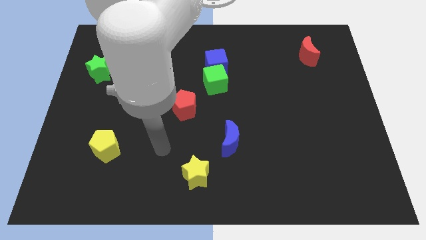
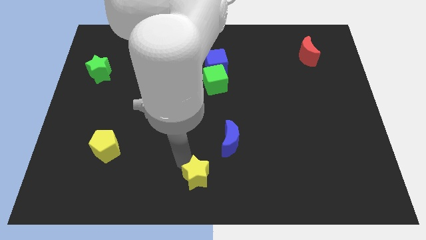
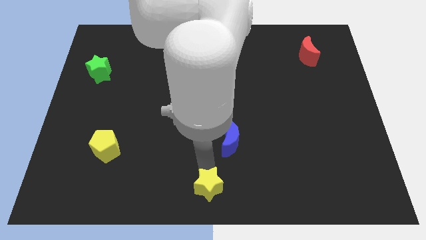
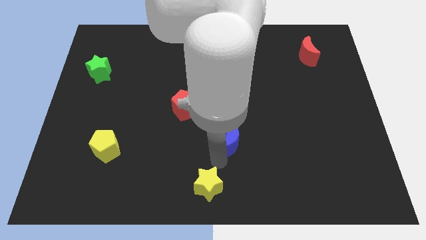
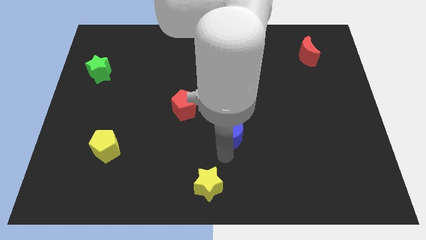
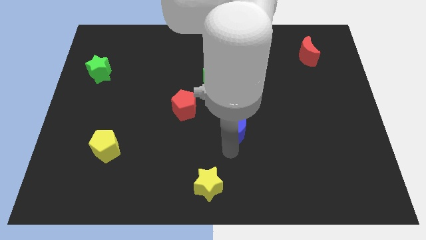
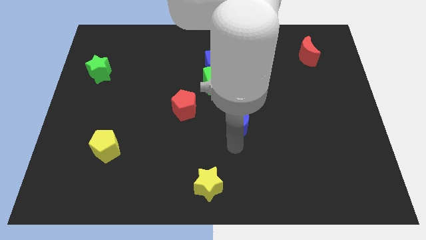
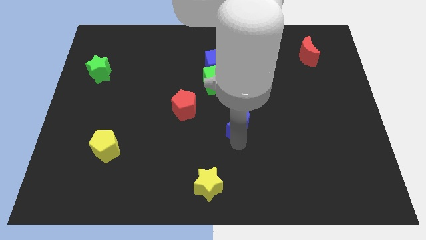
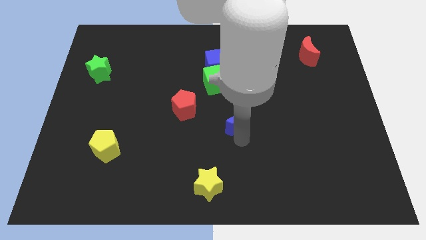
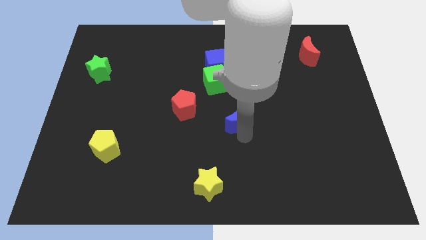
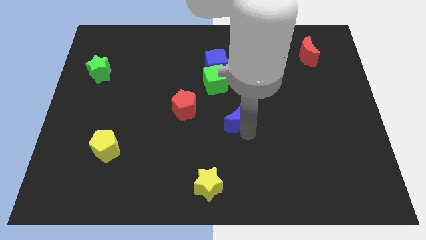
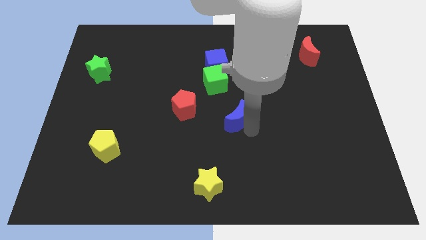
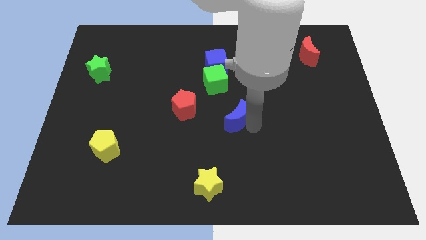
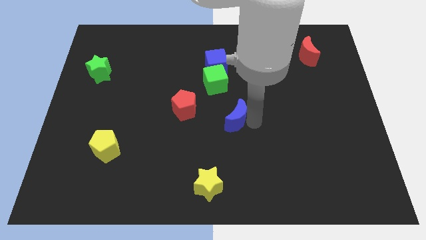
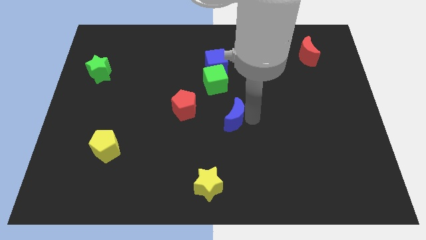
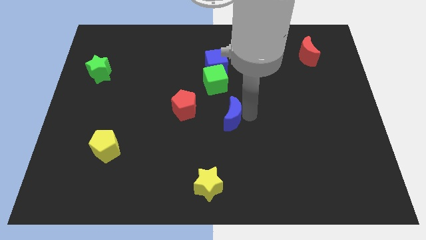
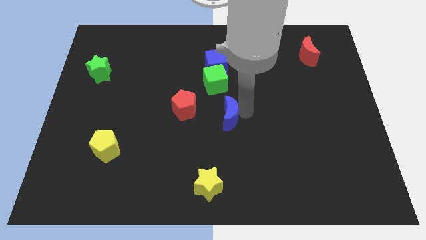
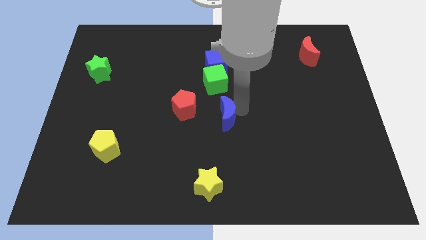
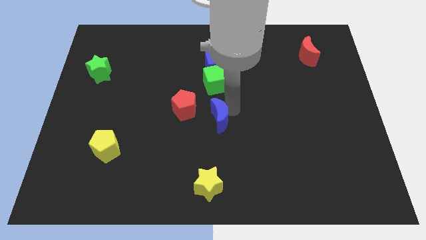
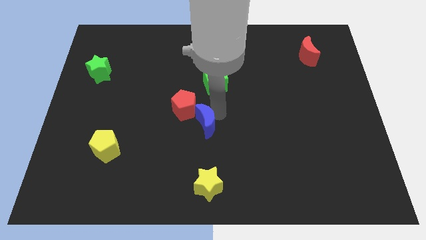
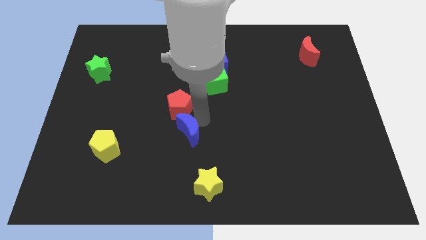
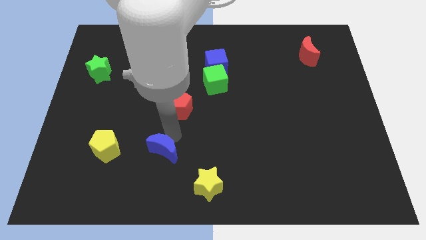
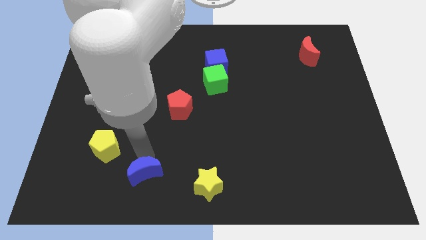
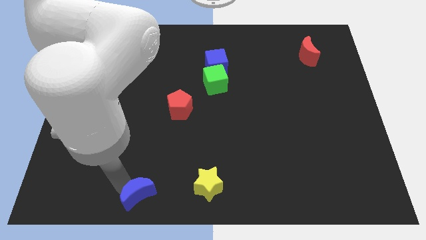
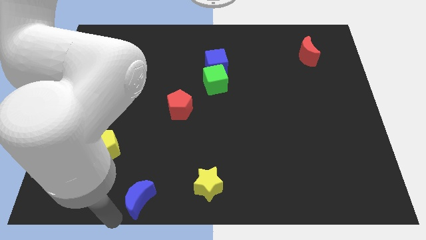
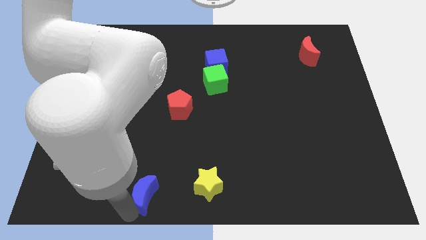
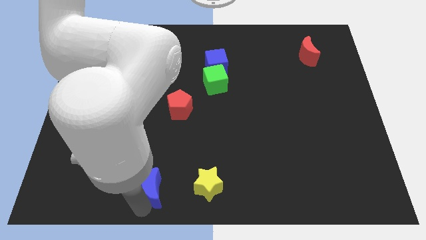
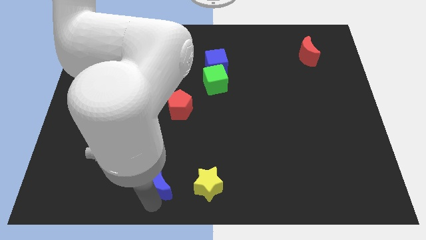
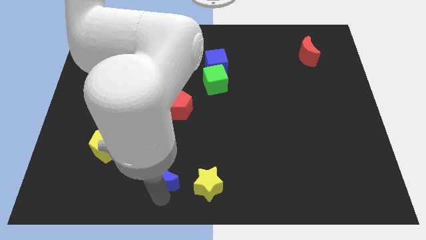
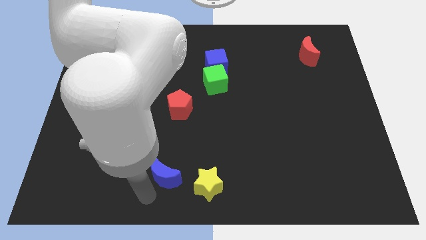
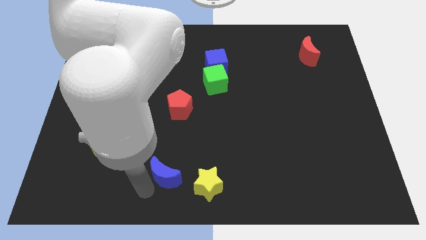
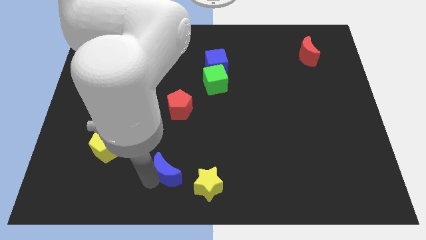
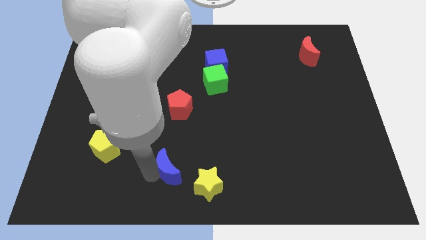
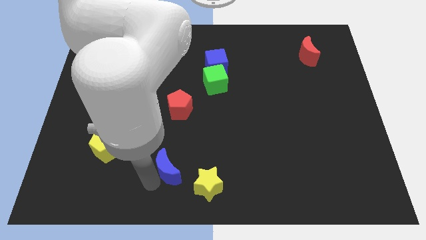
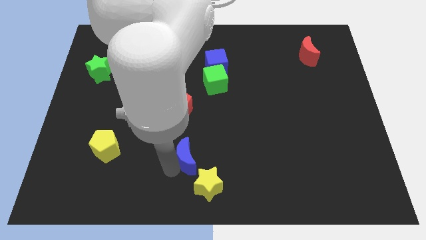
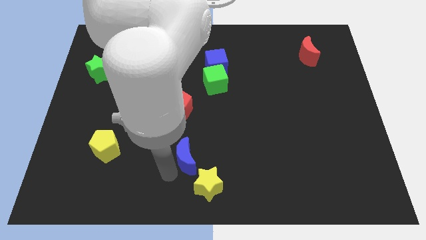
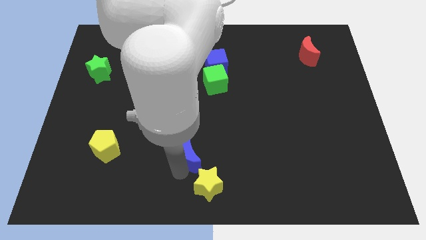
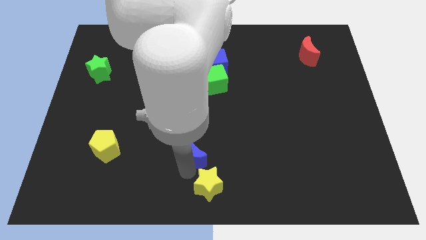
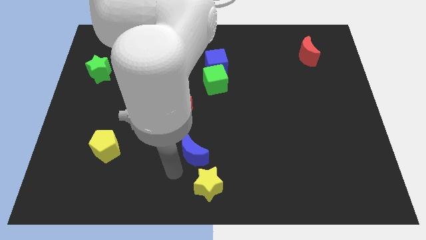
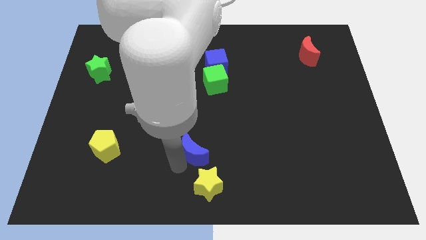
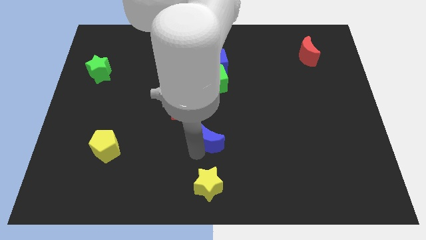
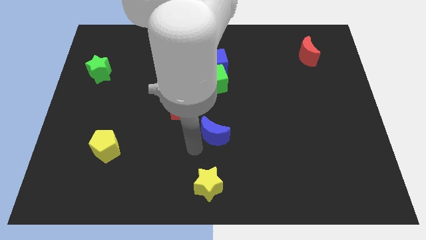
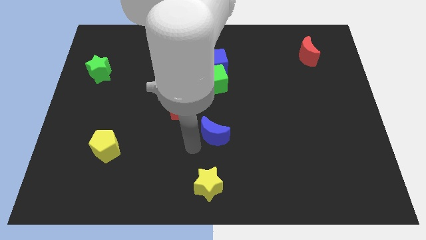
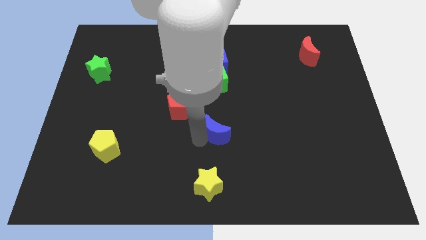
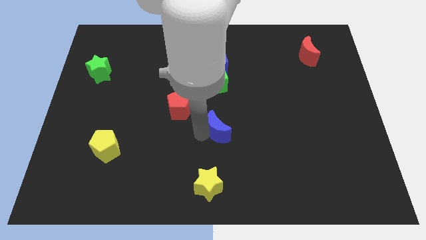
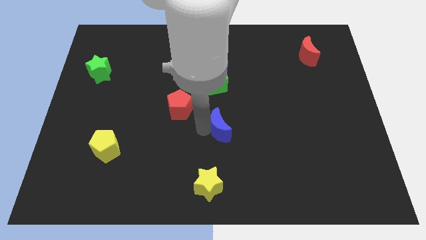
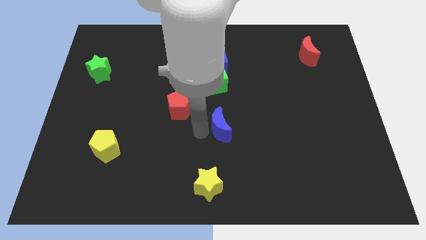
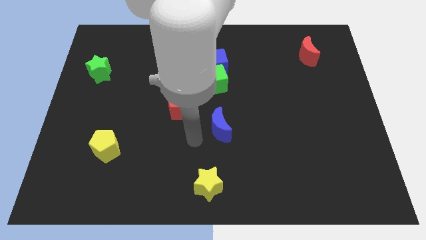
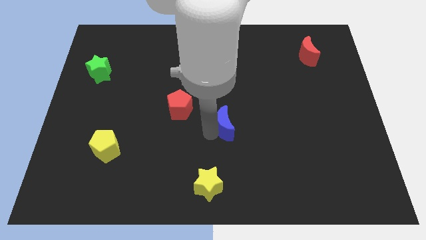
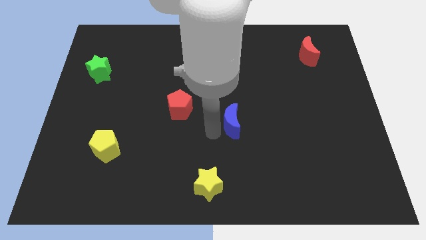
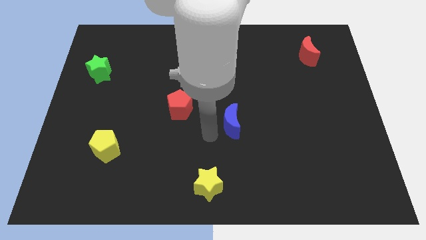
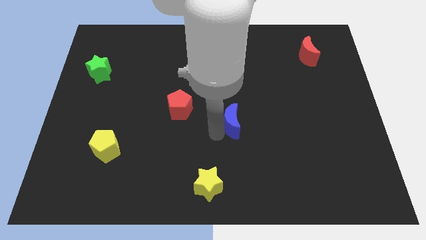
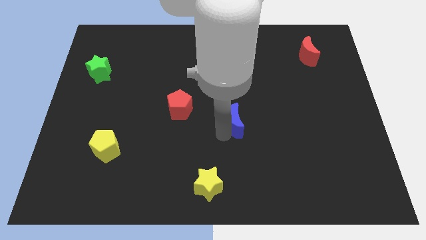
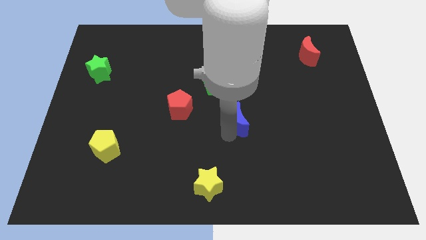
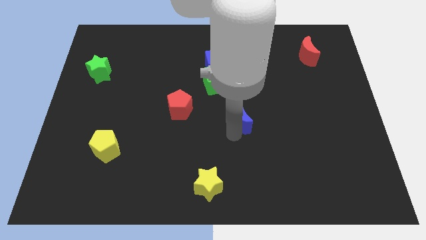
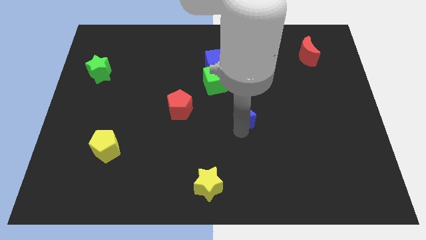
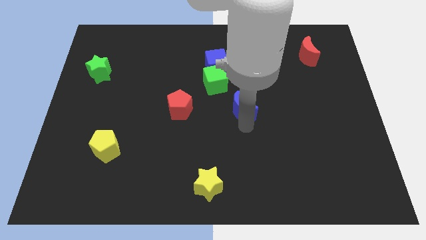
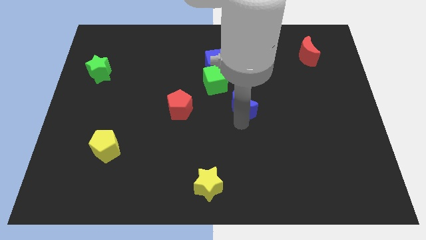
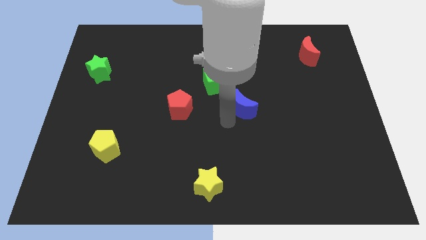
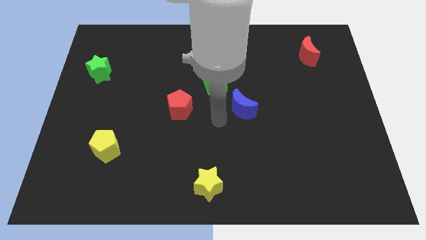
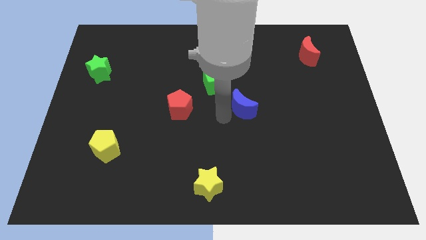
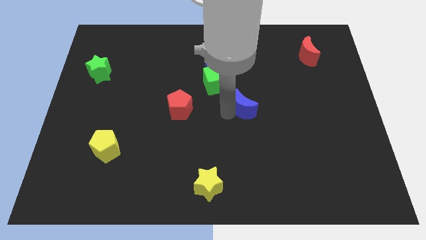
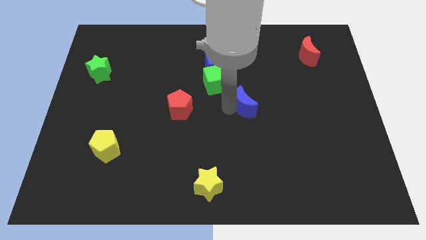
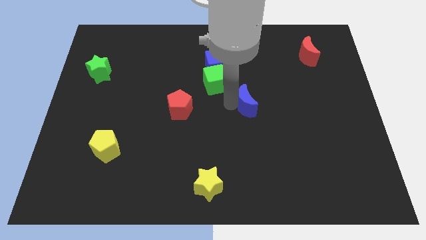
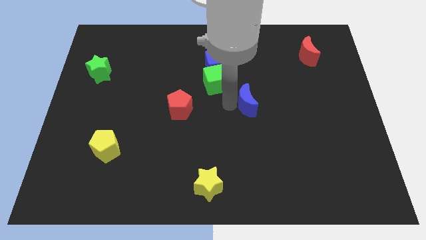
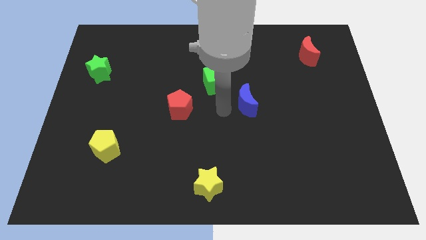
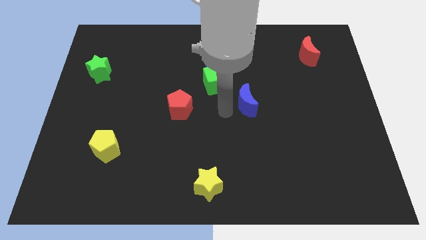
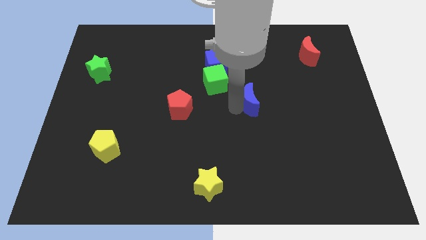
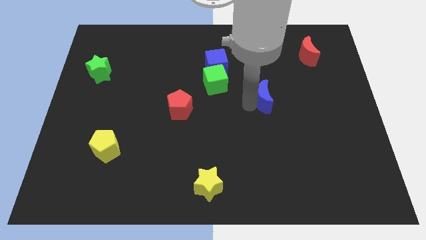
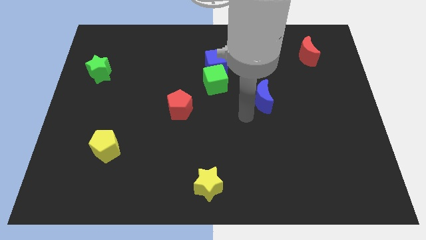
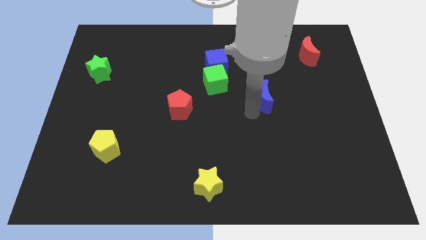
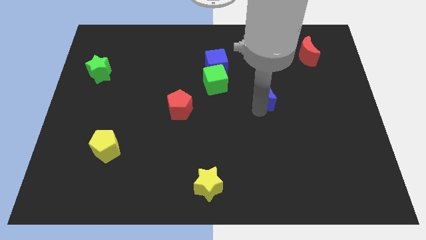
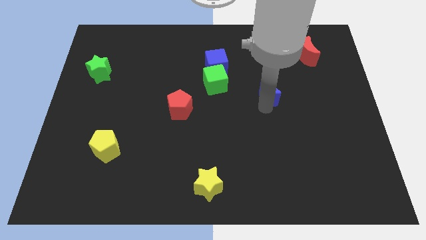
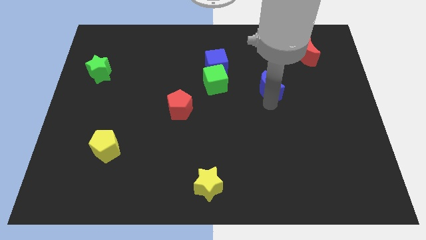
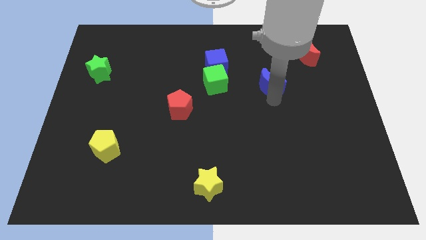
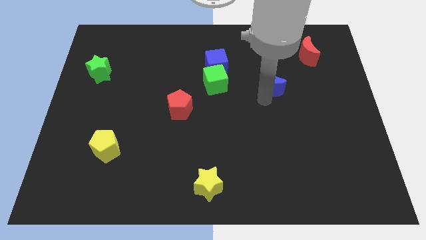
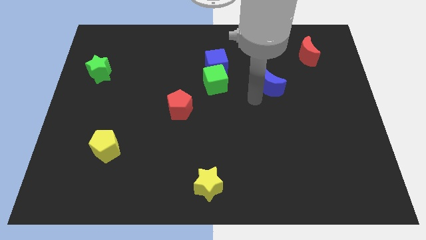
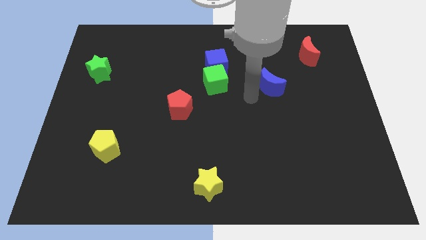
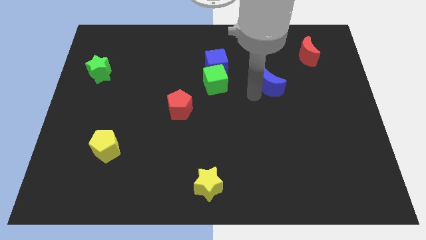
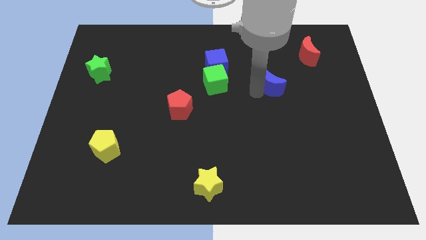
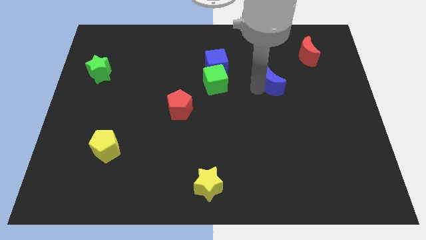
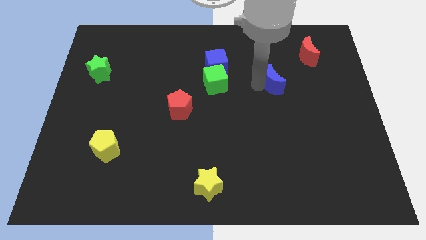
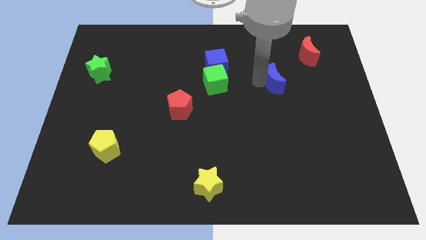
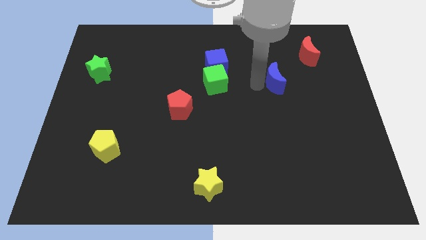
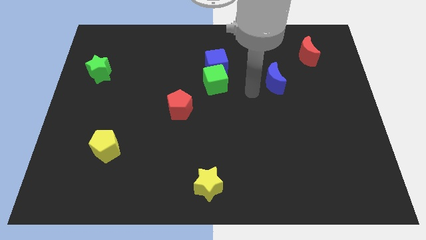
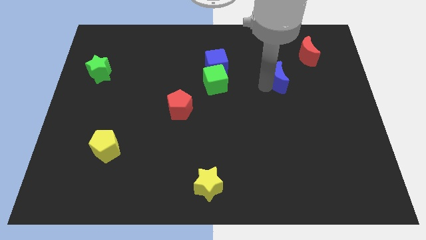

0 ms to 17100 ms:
push the blue moon diagonally upwards and right
